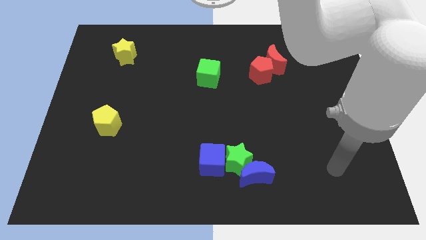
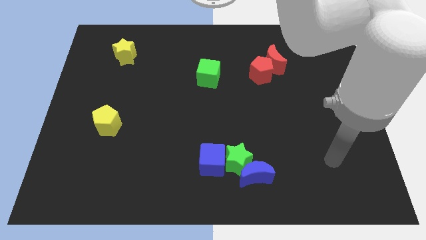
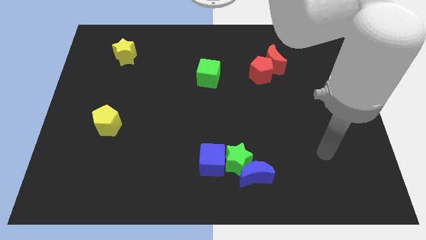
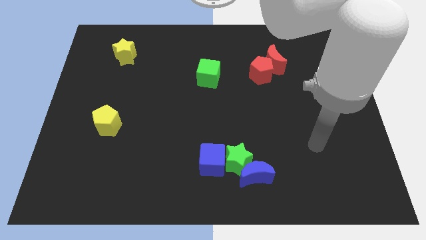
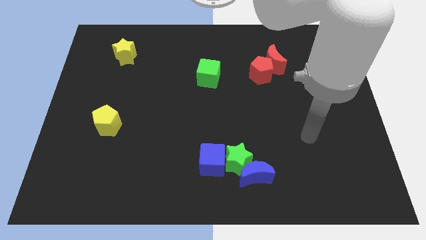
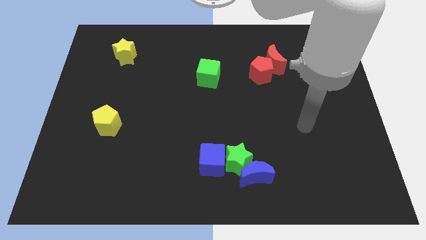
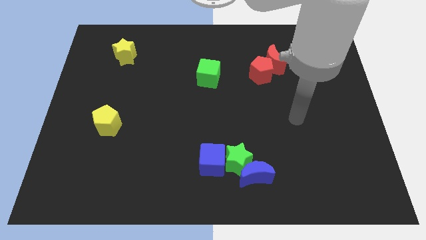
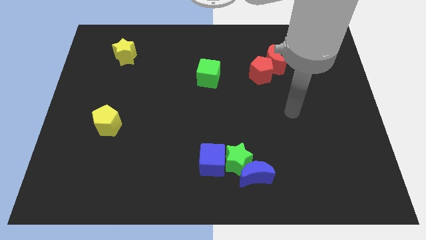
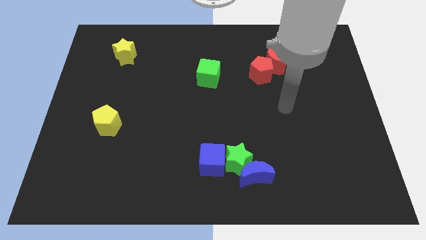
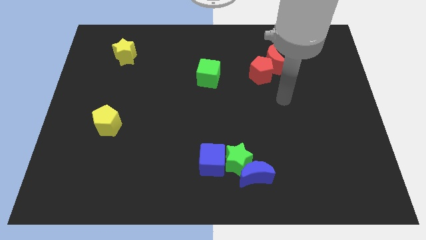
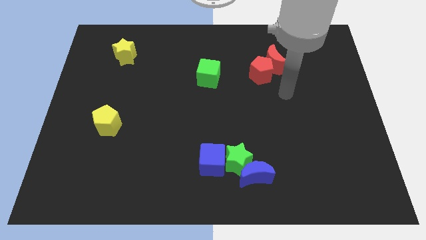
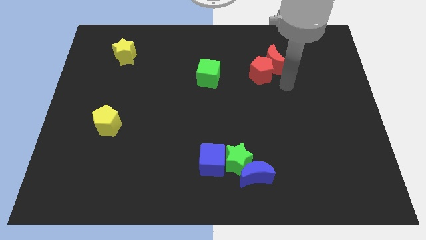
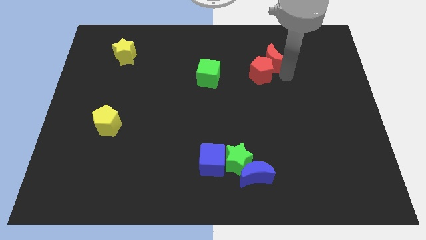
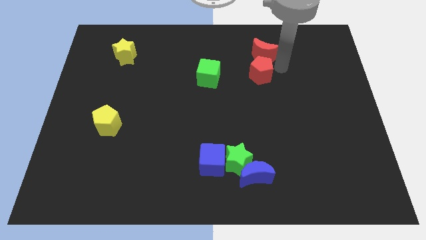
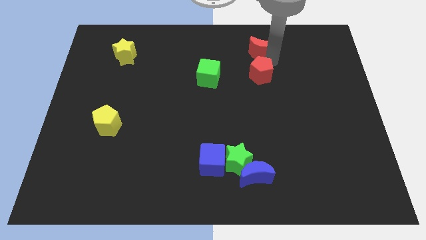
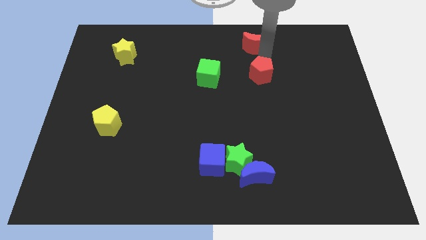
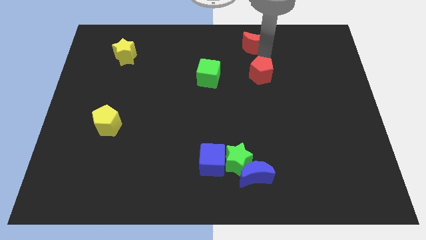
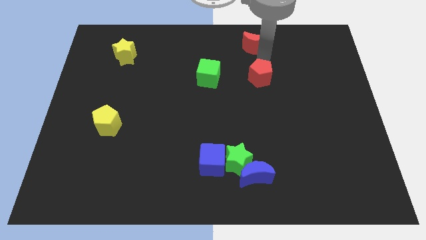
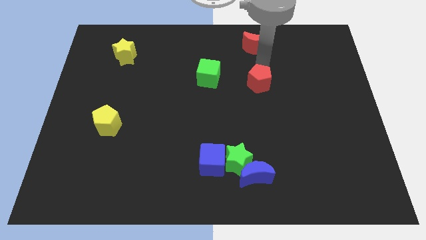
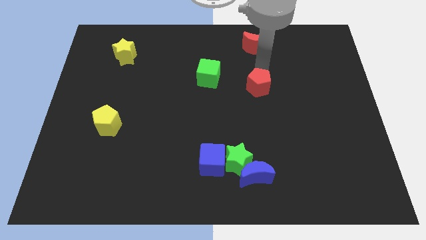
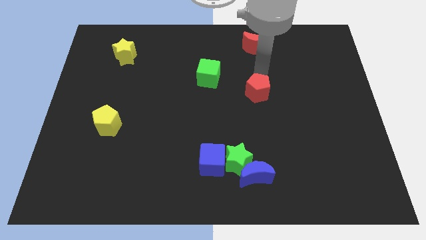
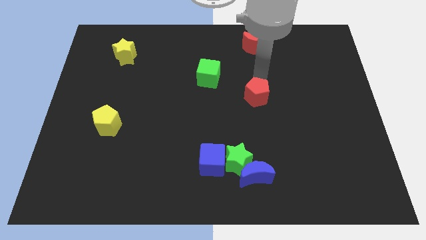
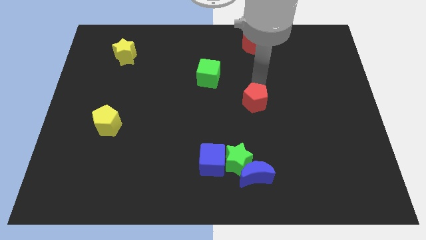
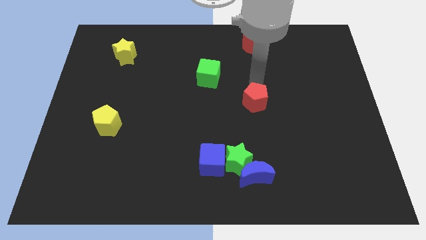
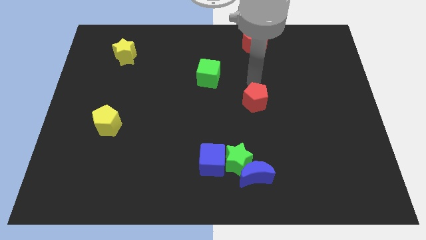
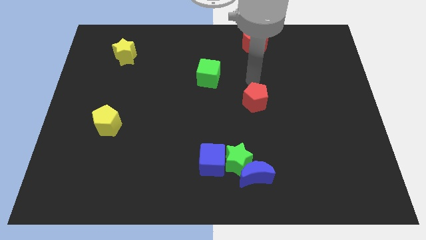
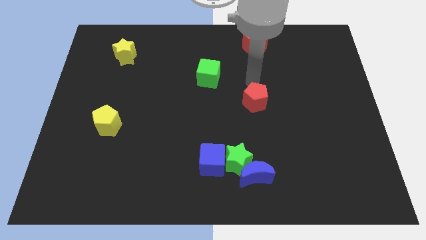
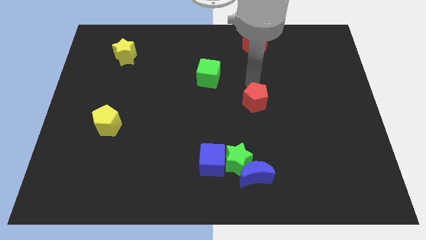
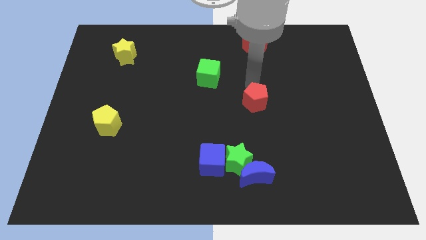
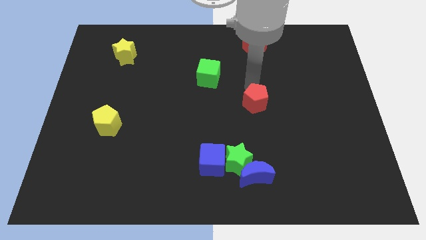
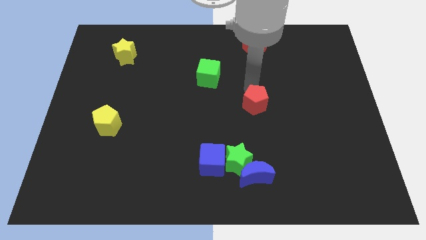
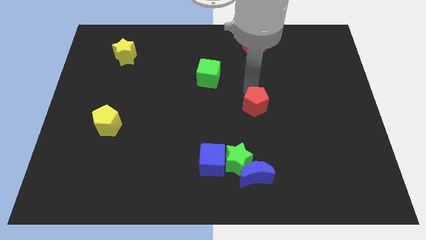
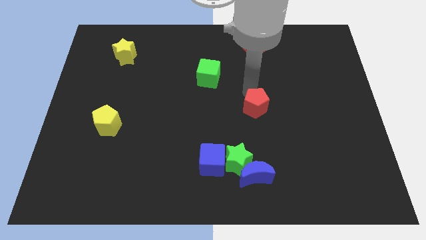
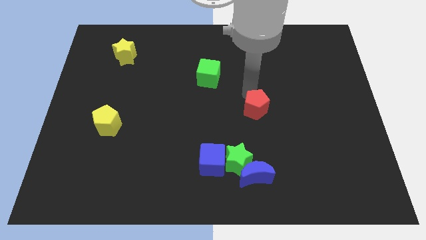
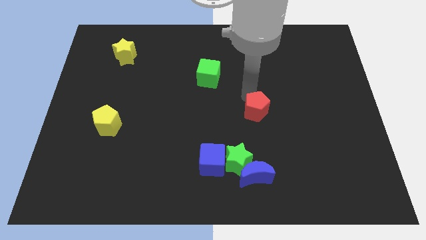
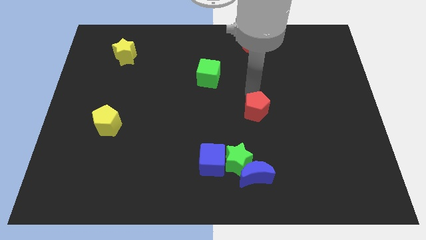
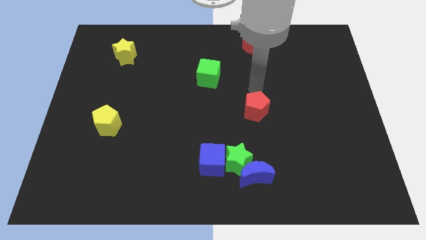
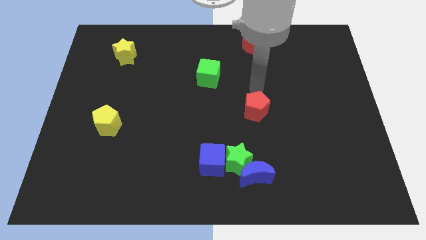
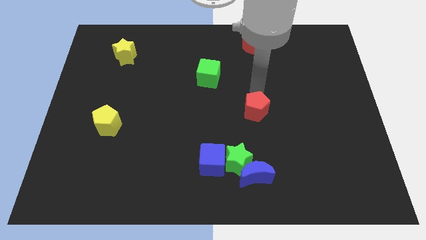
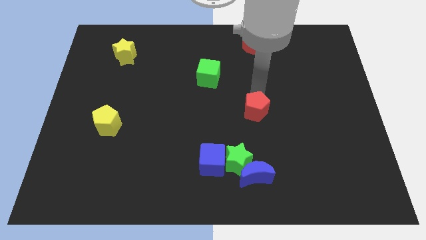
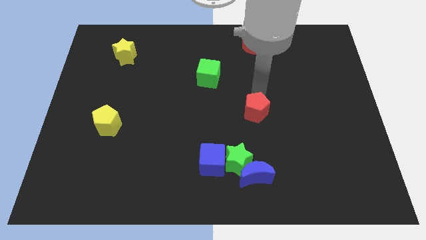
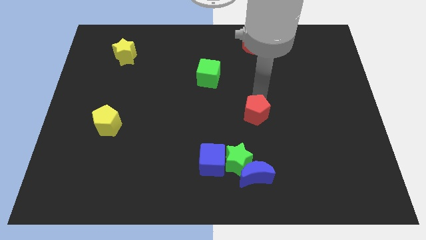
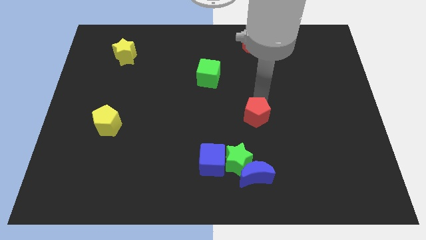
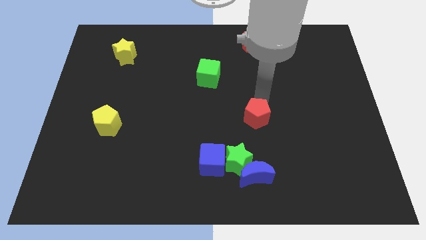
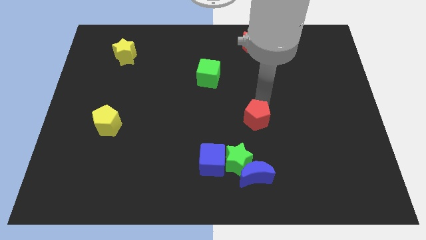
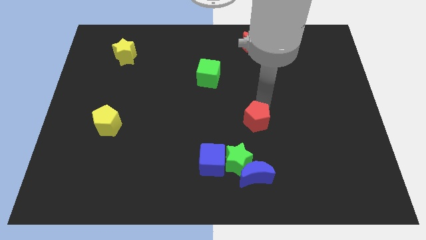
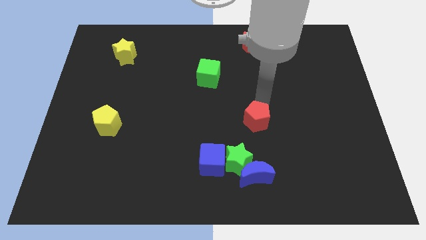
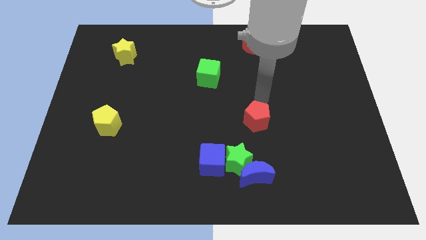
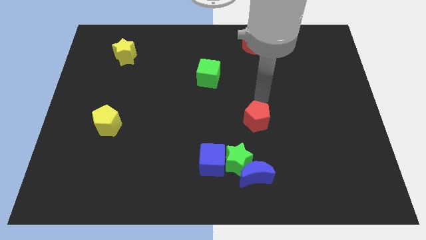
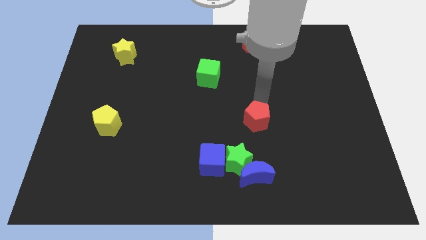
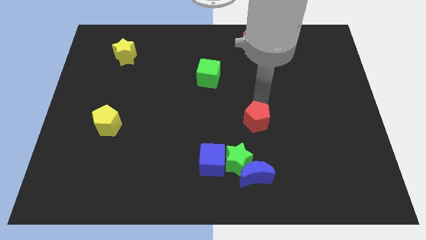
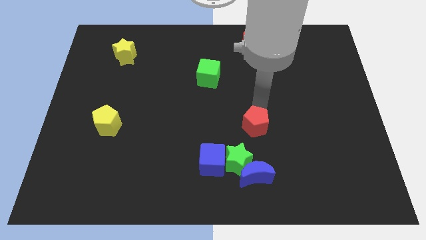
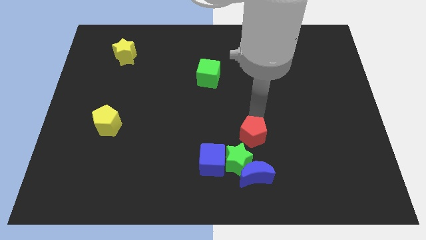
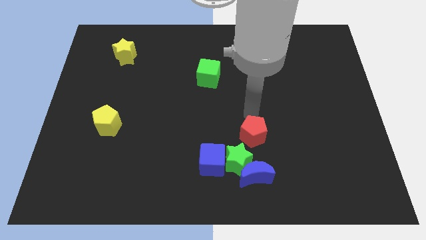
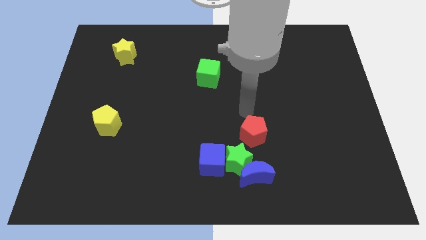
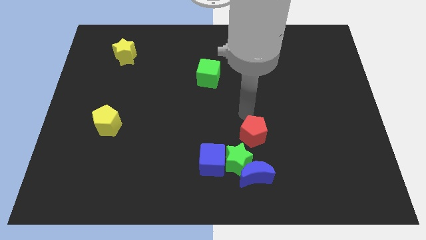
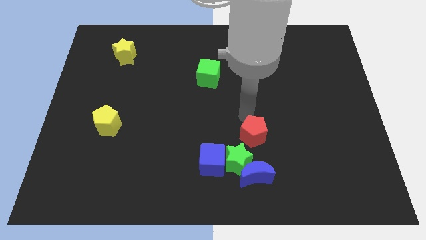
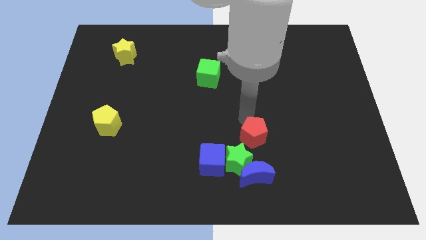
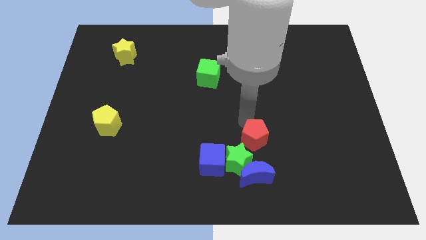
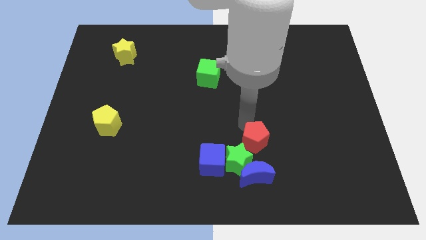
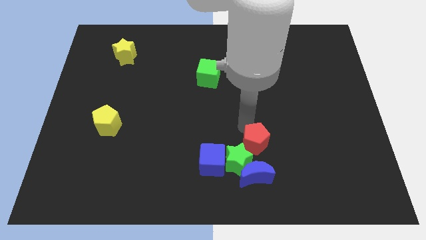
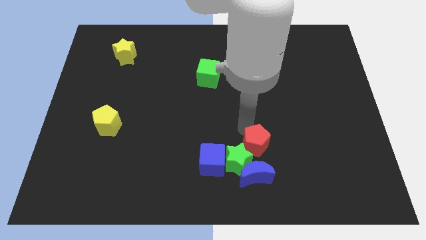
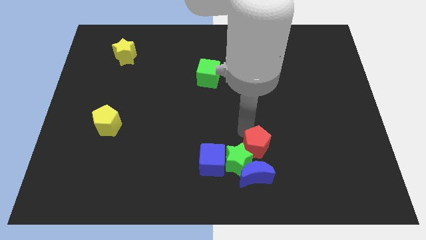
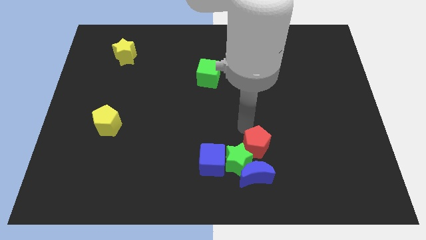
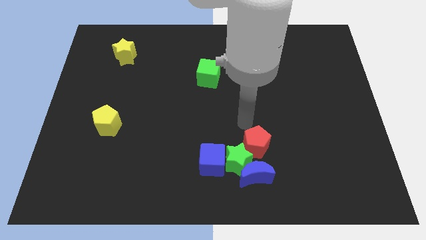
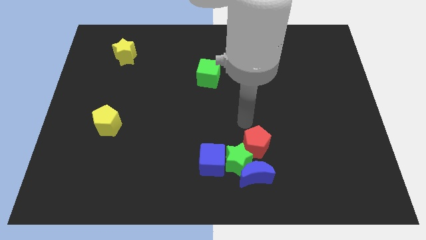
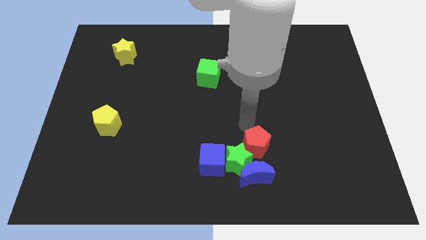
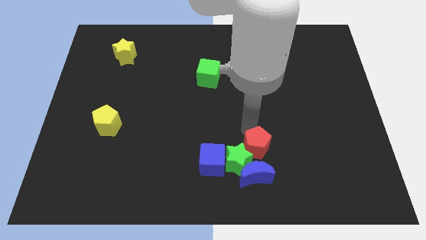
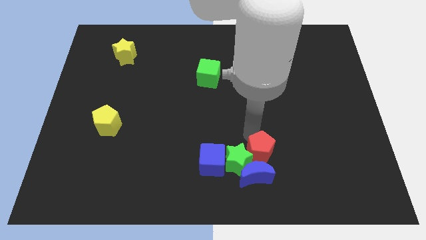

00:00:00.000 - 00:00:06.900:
push the red pentagon close to the blue moon
